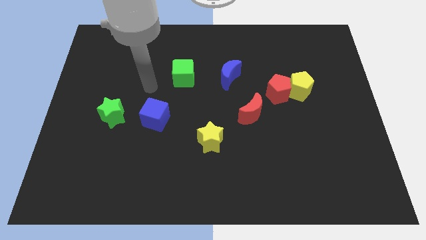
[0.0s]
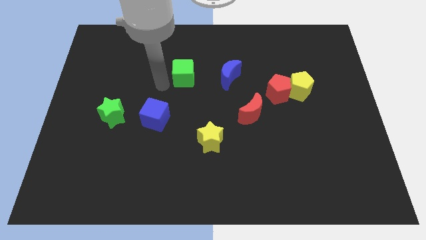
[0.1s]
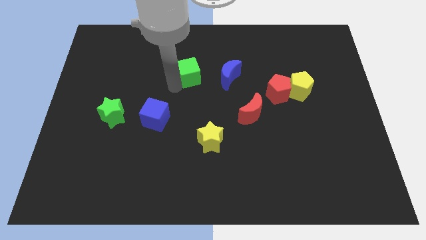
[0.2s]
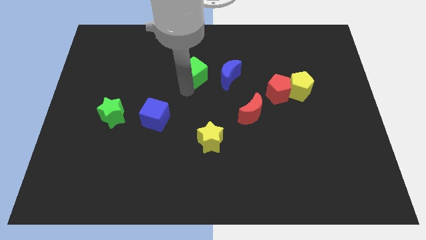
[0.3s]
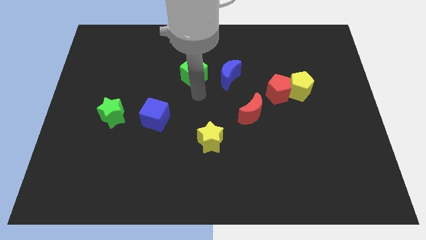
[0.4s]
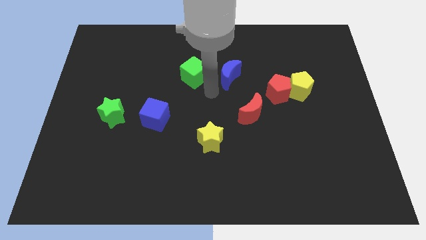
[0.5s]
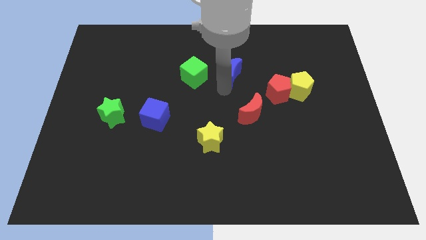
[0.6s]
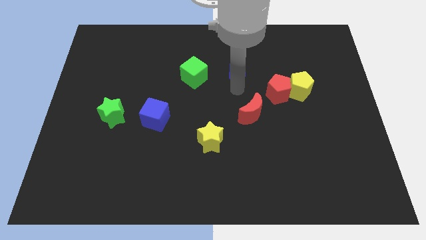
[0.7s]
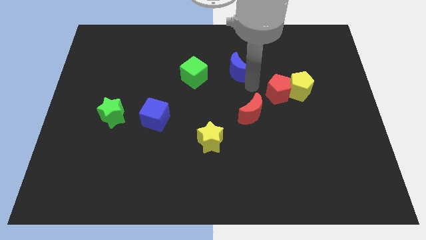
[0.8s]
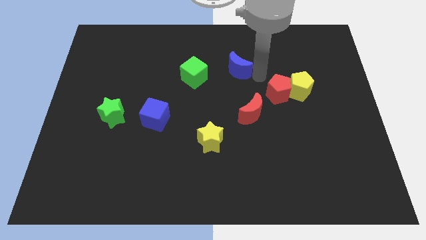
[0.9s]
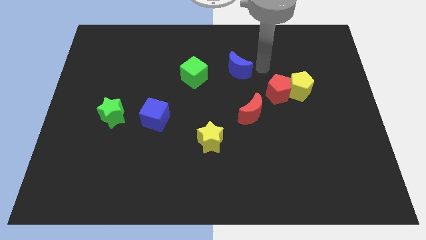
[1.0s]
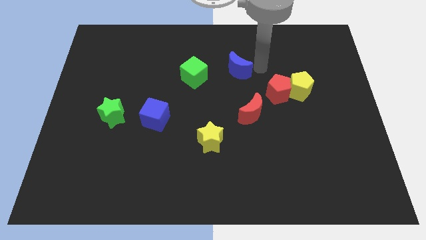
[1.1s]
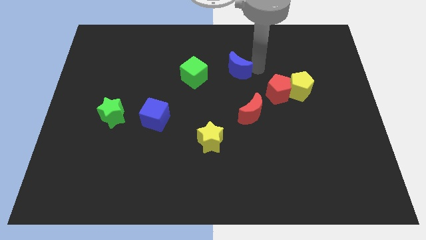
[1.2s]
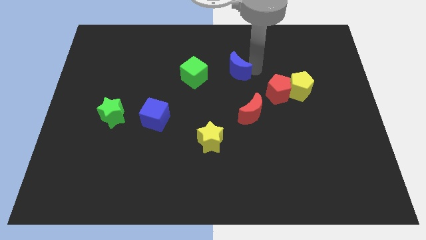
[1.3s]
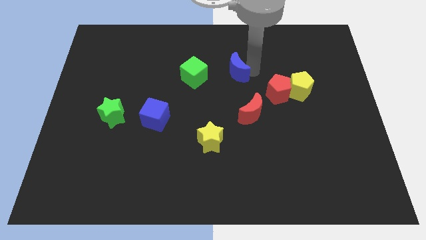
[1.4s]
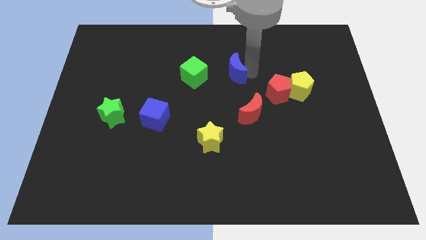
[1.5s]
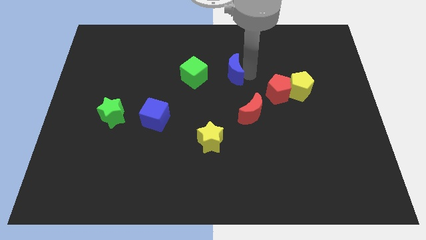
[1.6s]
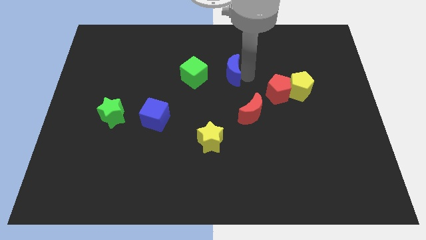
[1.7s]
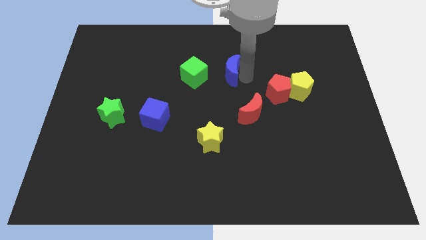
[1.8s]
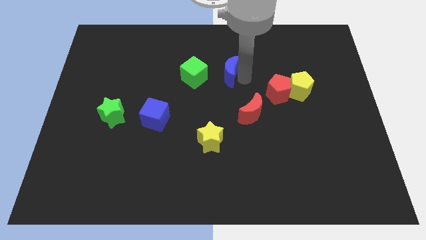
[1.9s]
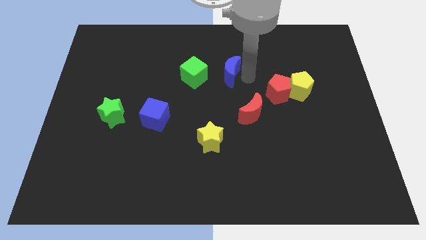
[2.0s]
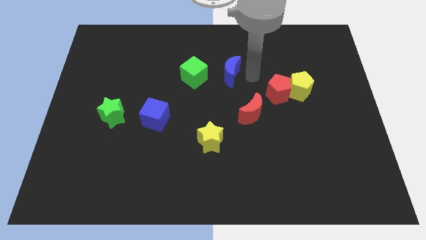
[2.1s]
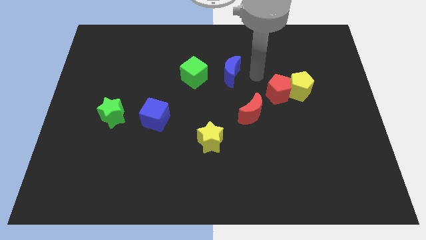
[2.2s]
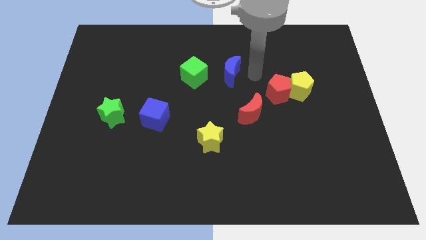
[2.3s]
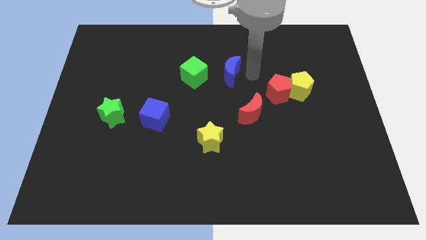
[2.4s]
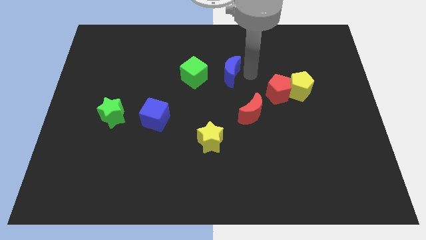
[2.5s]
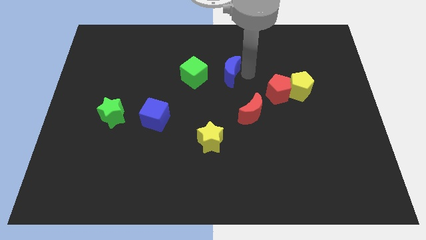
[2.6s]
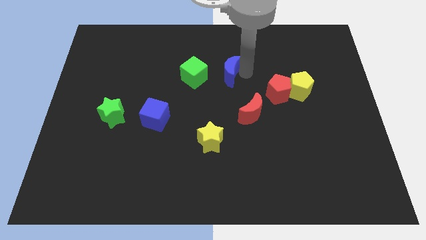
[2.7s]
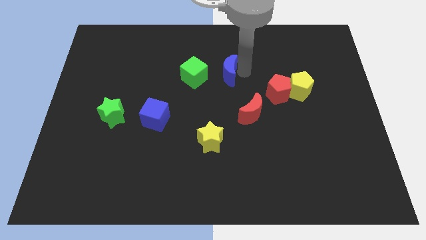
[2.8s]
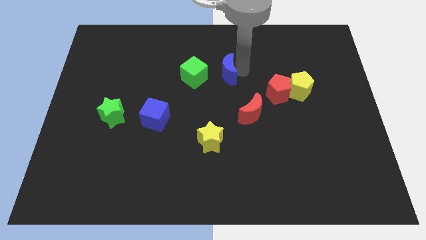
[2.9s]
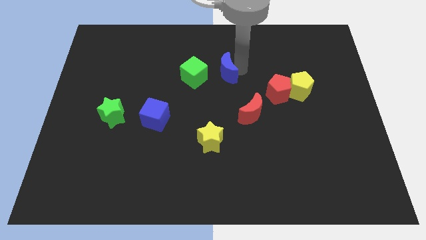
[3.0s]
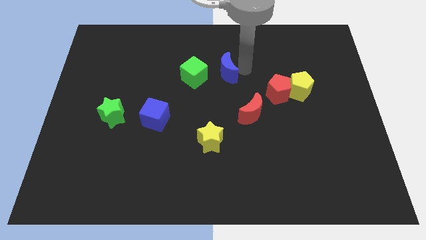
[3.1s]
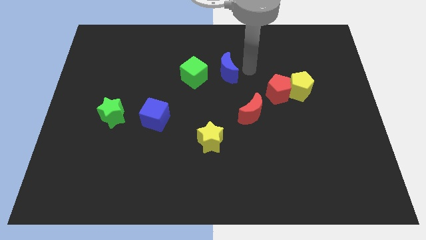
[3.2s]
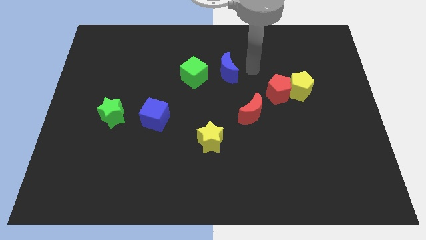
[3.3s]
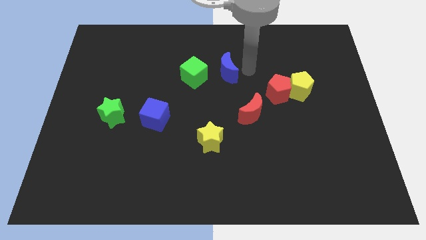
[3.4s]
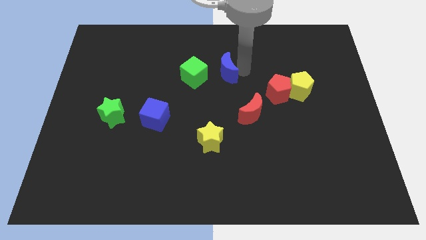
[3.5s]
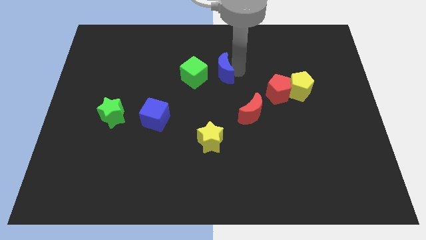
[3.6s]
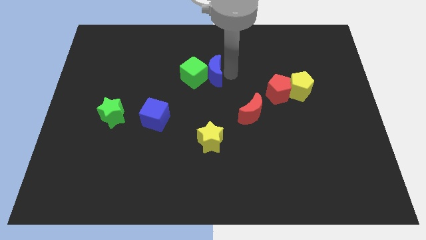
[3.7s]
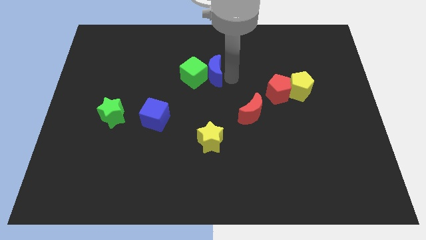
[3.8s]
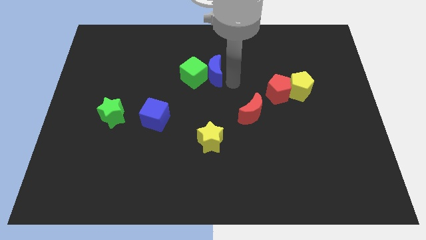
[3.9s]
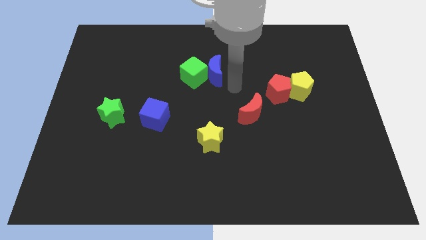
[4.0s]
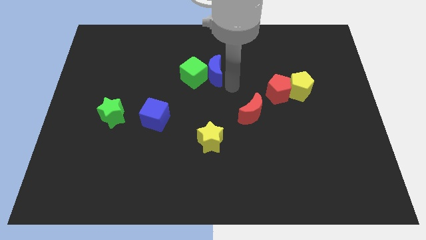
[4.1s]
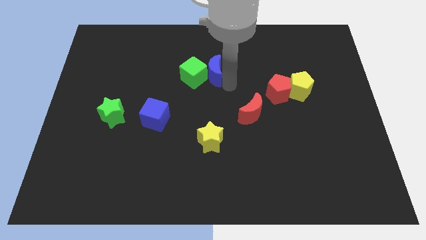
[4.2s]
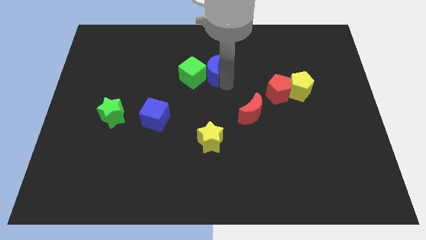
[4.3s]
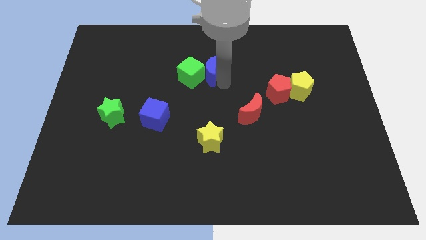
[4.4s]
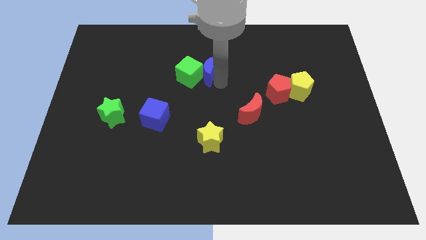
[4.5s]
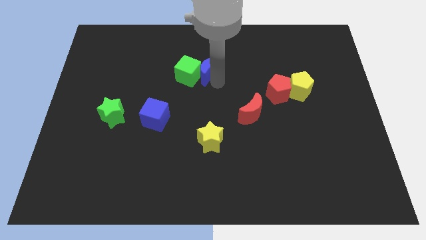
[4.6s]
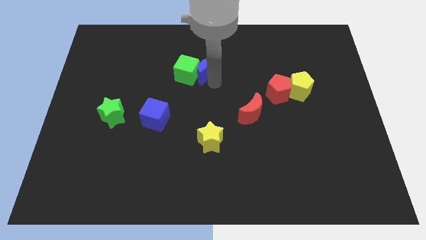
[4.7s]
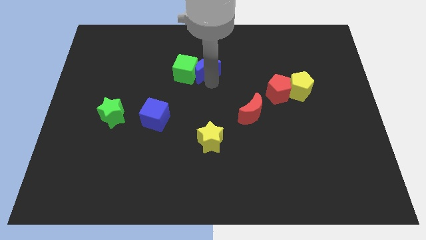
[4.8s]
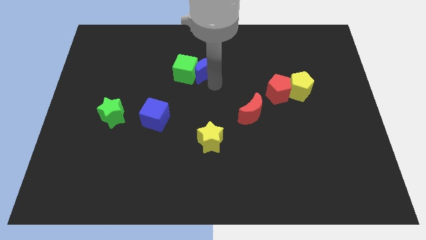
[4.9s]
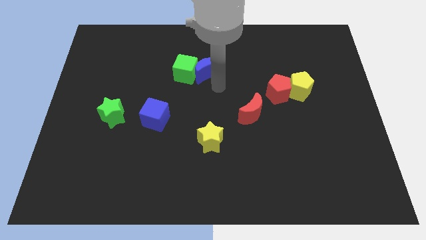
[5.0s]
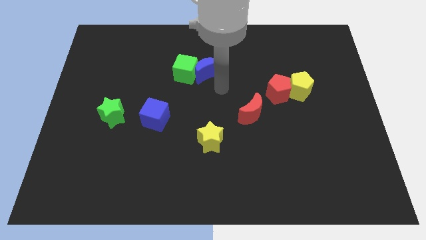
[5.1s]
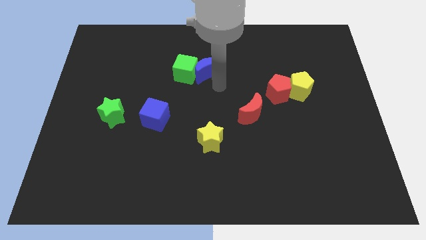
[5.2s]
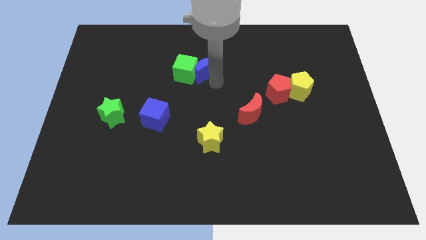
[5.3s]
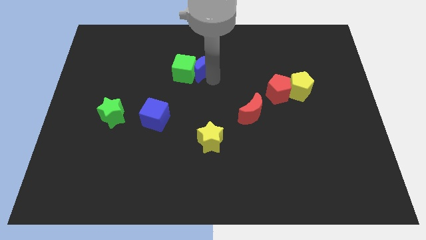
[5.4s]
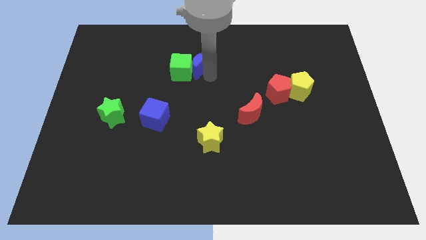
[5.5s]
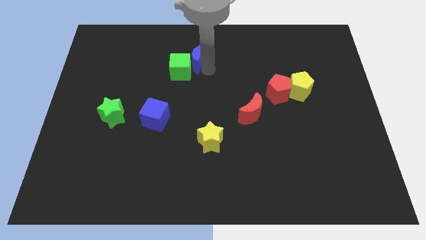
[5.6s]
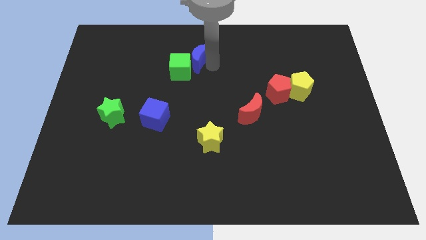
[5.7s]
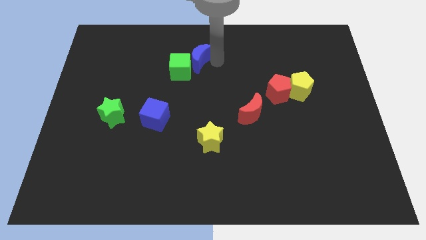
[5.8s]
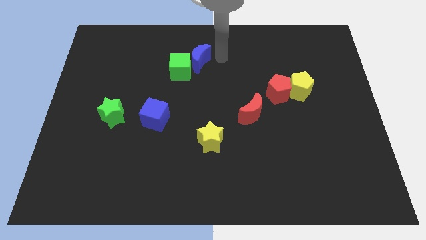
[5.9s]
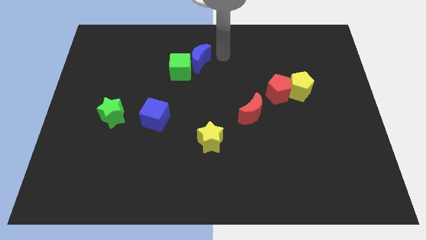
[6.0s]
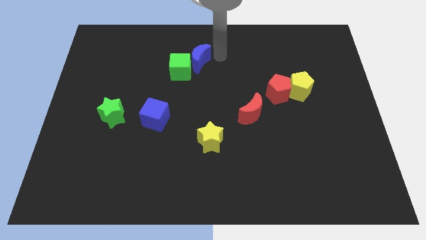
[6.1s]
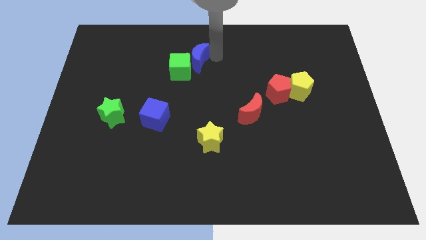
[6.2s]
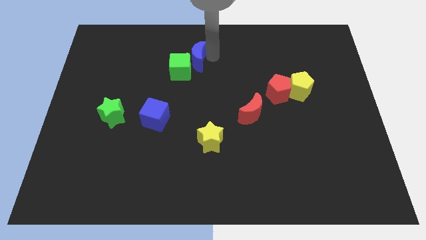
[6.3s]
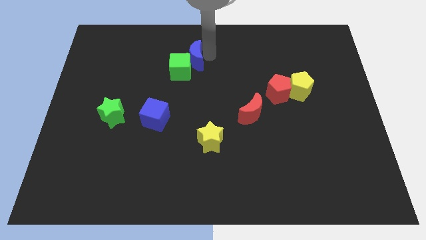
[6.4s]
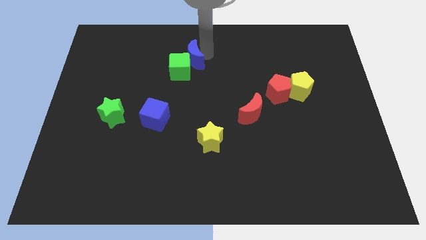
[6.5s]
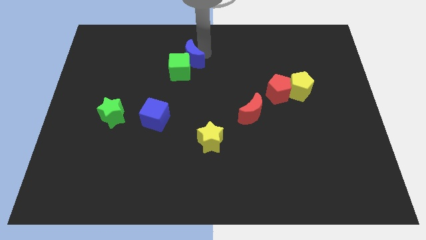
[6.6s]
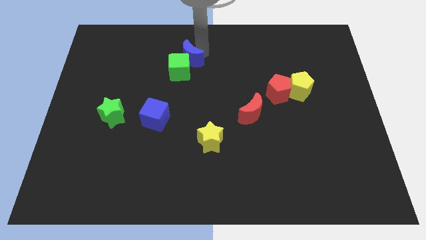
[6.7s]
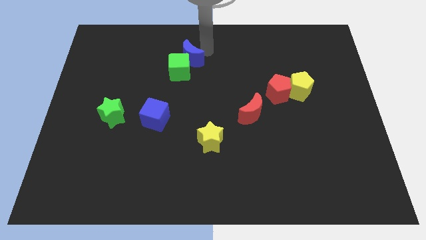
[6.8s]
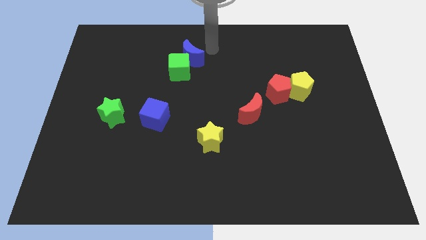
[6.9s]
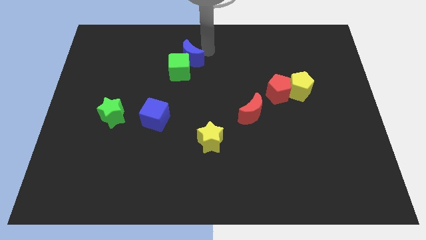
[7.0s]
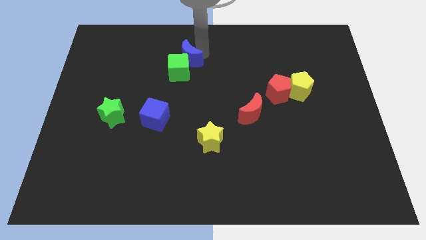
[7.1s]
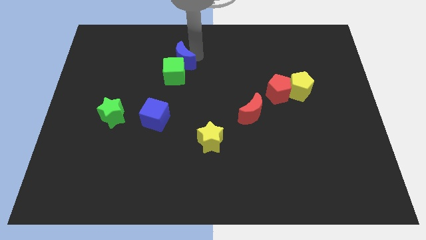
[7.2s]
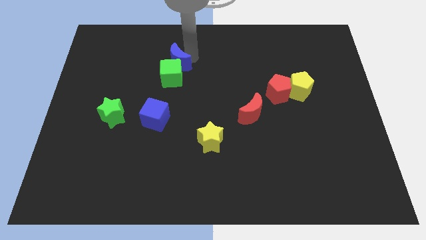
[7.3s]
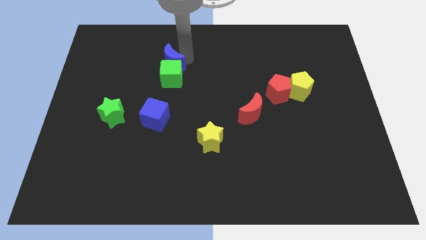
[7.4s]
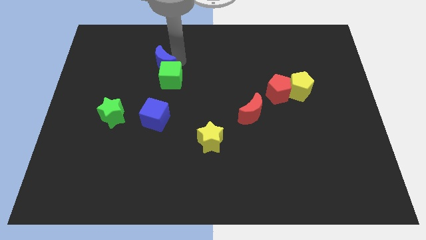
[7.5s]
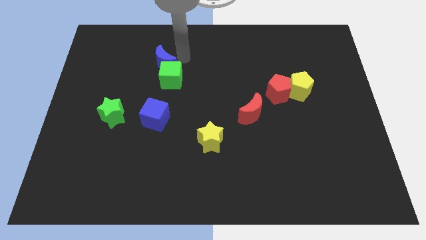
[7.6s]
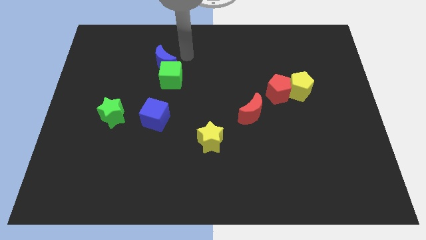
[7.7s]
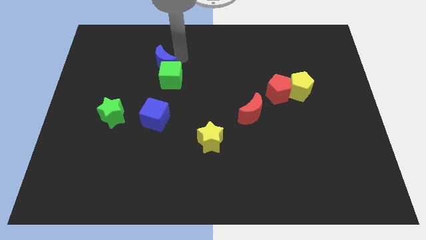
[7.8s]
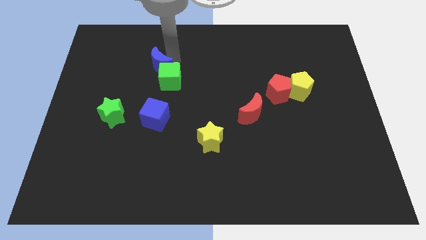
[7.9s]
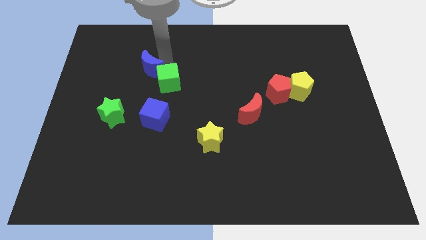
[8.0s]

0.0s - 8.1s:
put the blue moon left of the green cube

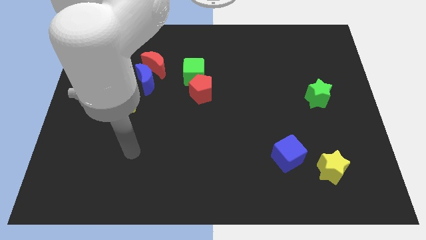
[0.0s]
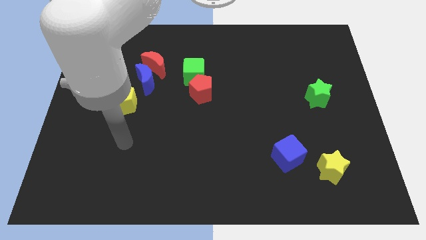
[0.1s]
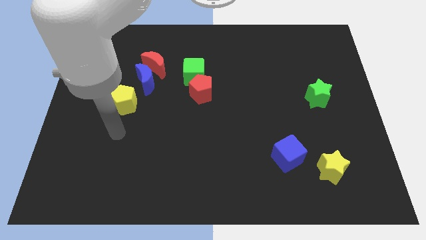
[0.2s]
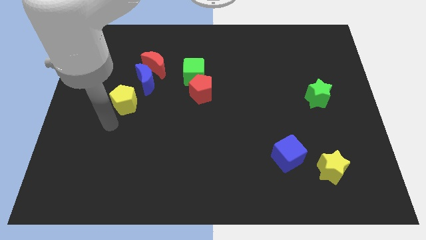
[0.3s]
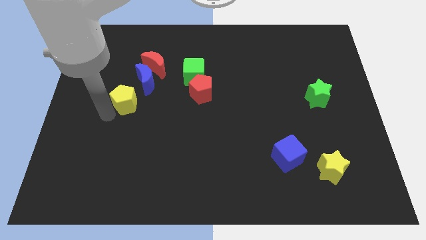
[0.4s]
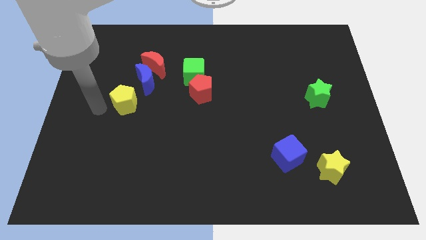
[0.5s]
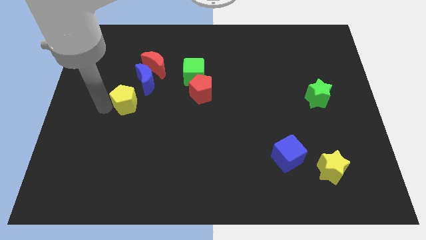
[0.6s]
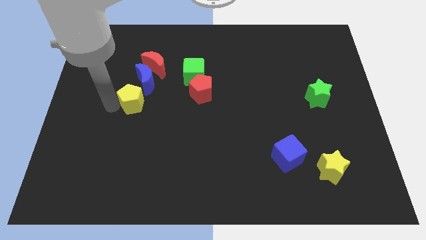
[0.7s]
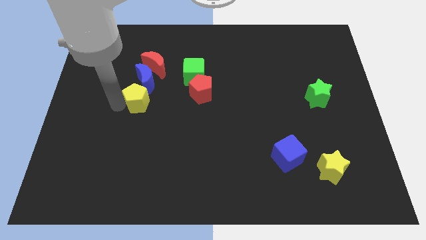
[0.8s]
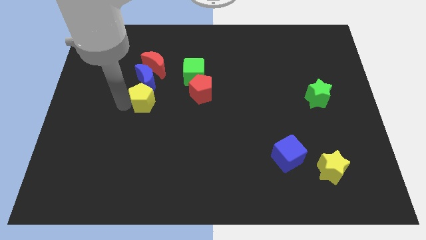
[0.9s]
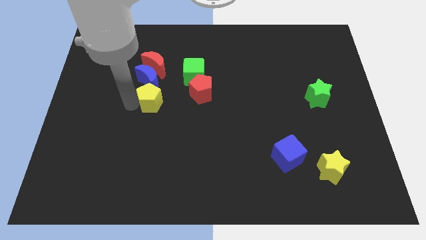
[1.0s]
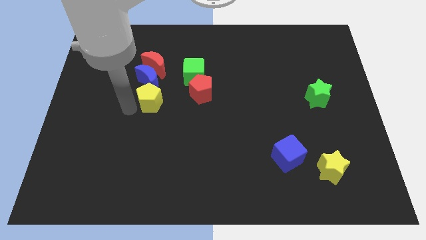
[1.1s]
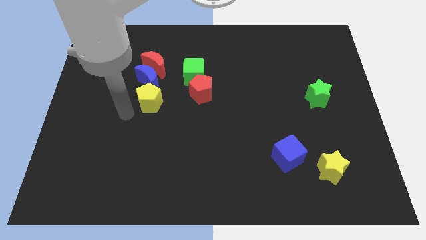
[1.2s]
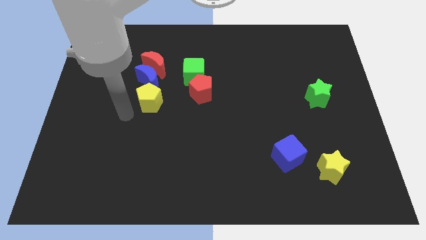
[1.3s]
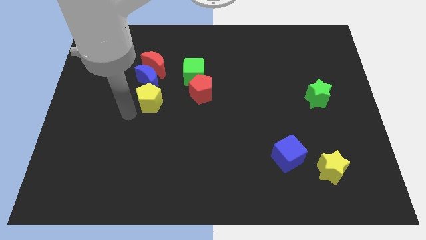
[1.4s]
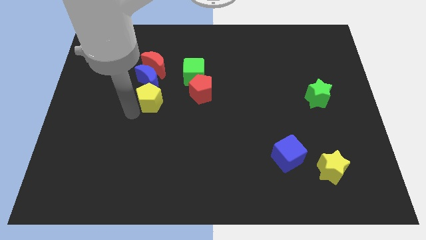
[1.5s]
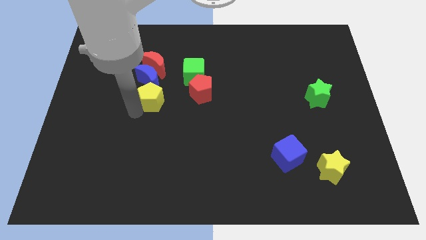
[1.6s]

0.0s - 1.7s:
push the yellow pentagon diagonally down and to the left of the green cube
